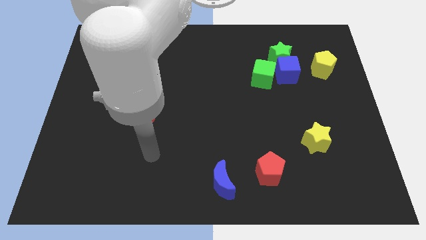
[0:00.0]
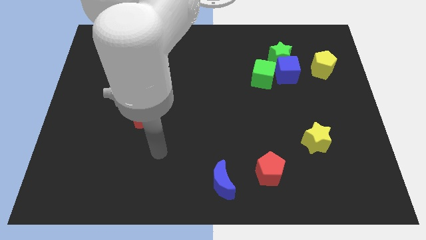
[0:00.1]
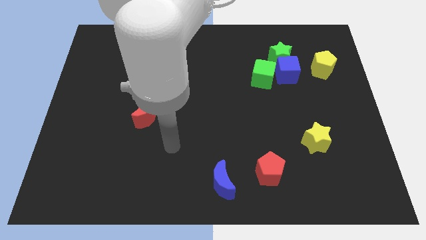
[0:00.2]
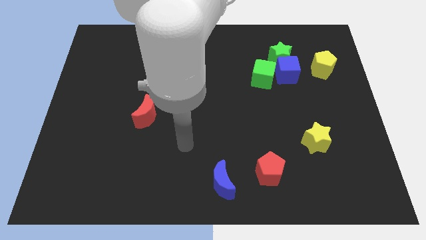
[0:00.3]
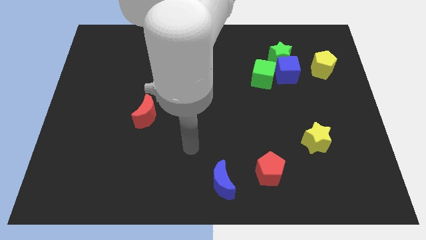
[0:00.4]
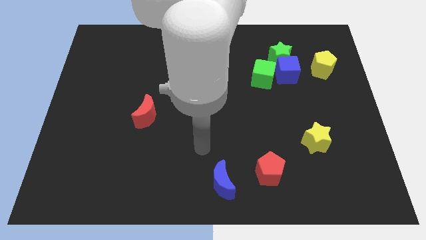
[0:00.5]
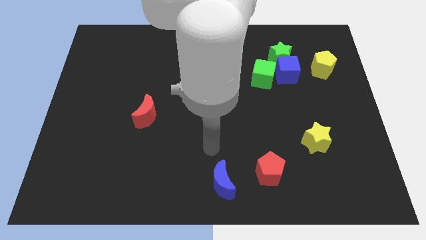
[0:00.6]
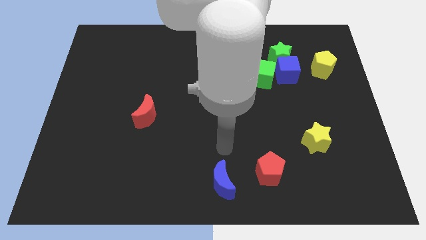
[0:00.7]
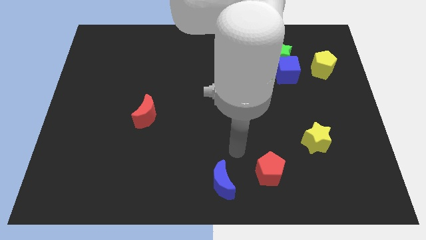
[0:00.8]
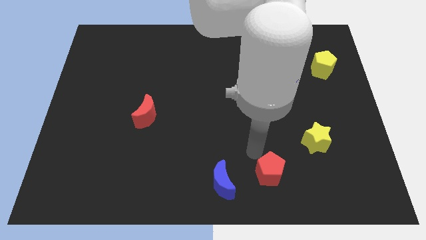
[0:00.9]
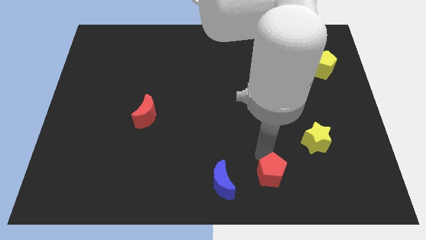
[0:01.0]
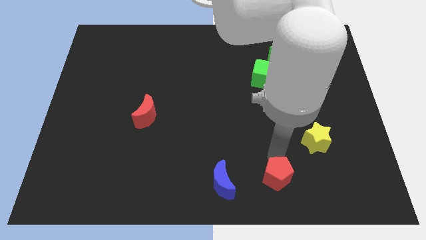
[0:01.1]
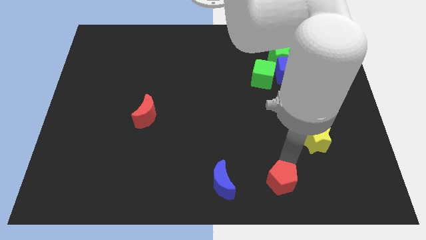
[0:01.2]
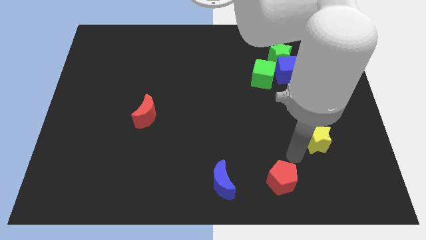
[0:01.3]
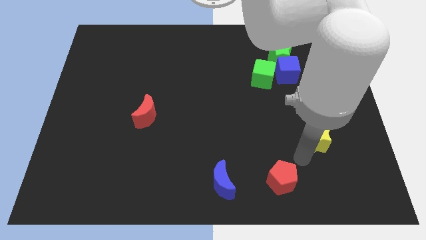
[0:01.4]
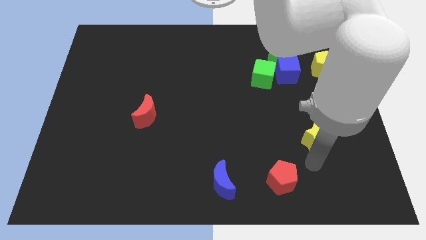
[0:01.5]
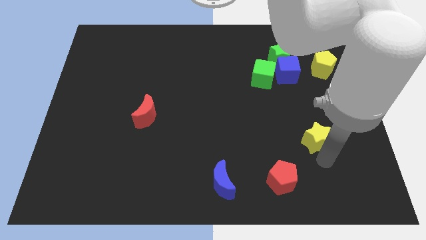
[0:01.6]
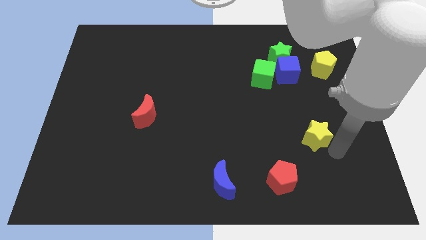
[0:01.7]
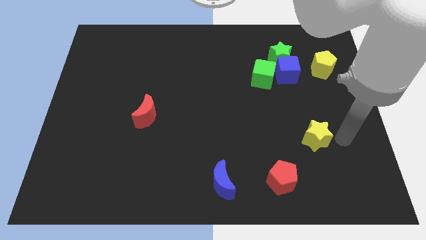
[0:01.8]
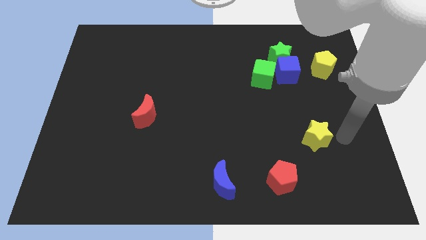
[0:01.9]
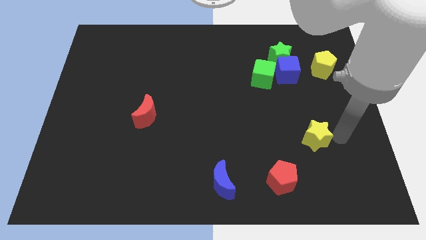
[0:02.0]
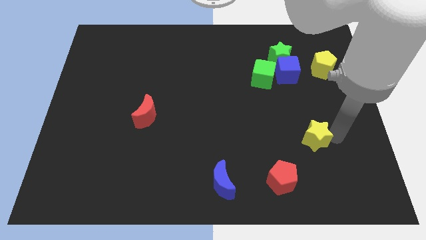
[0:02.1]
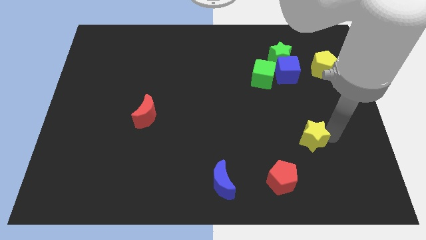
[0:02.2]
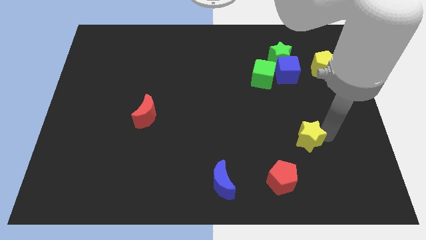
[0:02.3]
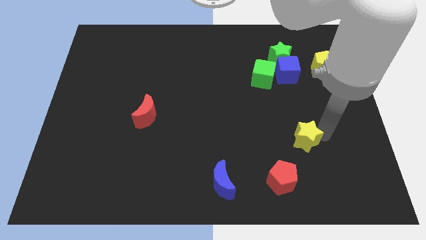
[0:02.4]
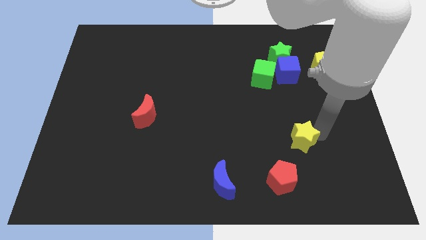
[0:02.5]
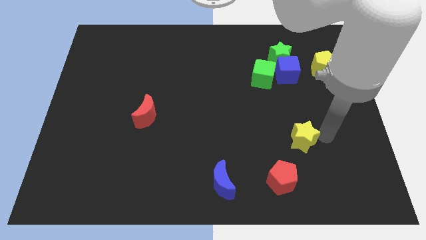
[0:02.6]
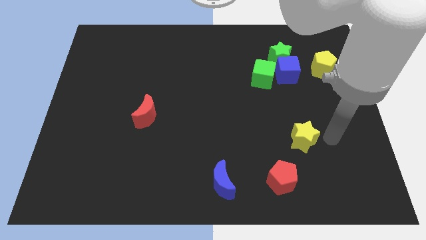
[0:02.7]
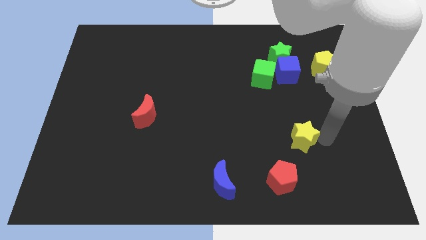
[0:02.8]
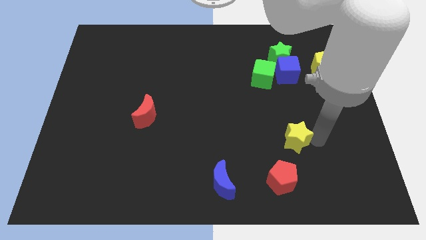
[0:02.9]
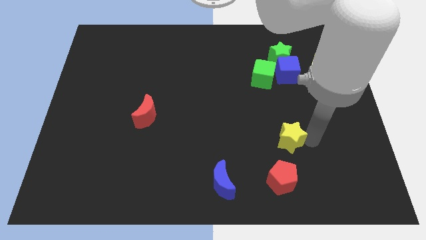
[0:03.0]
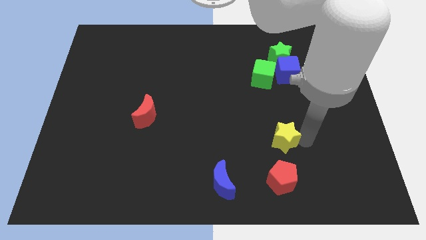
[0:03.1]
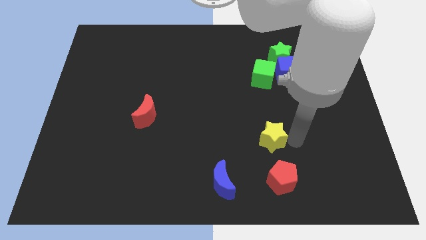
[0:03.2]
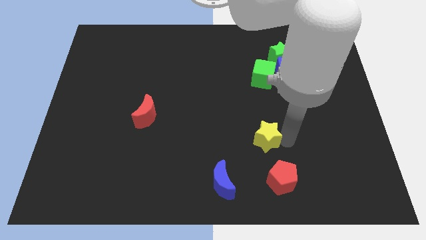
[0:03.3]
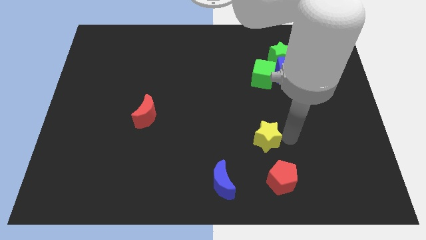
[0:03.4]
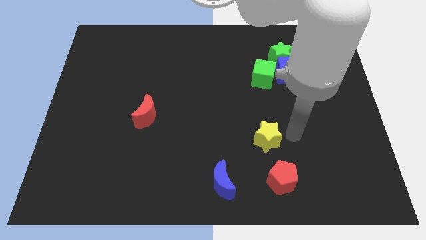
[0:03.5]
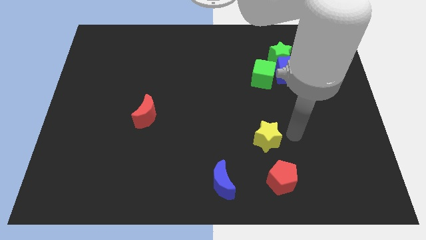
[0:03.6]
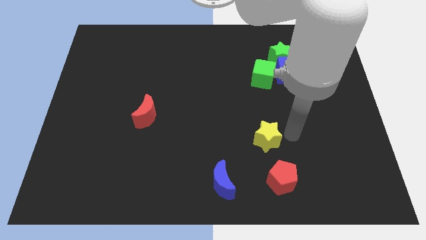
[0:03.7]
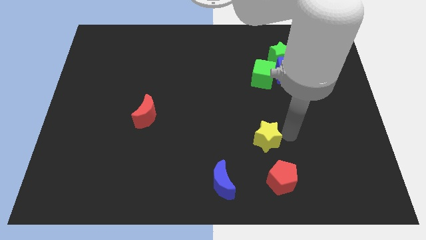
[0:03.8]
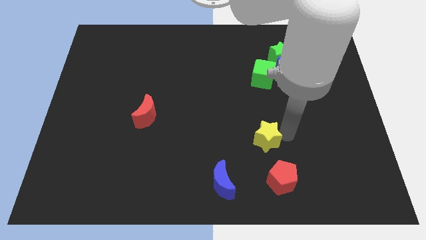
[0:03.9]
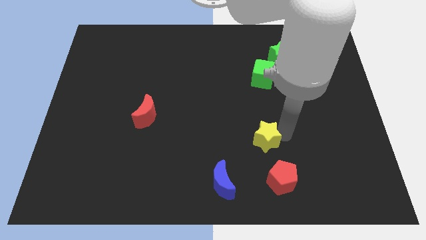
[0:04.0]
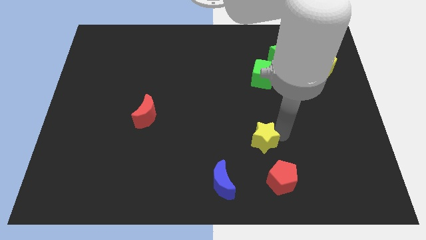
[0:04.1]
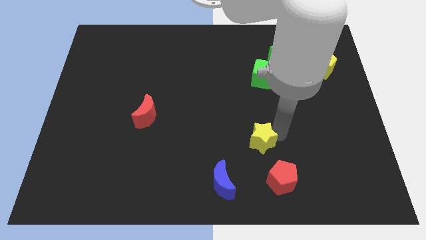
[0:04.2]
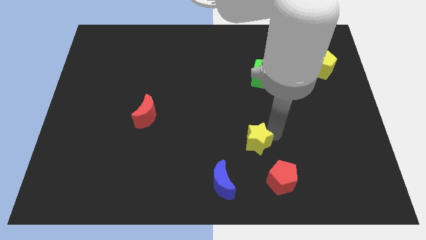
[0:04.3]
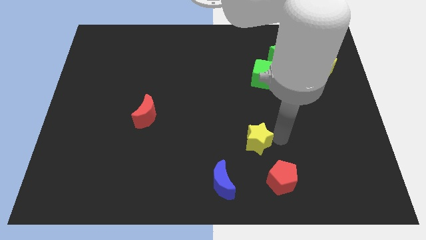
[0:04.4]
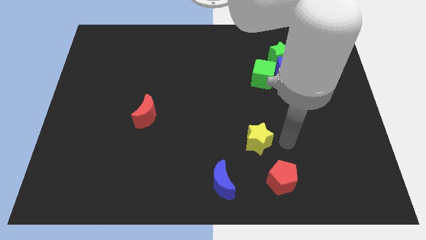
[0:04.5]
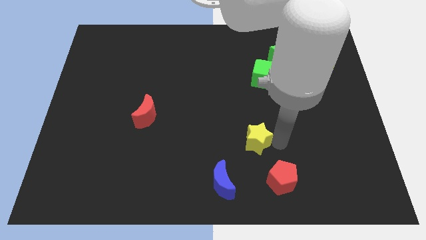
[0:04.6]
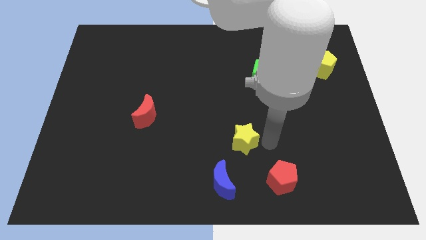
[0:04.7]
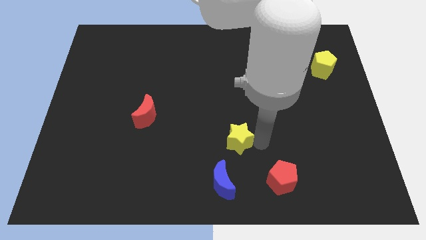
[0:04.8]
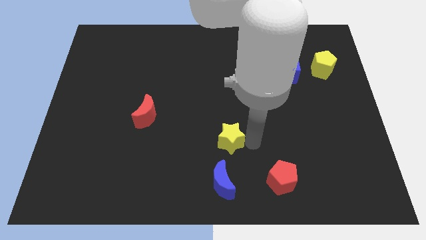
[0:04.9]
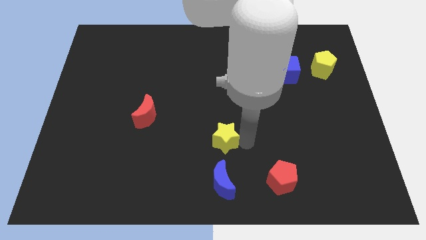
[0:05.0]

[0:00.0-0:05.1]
move the yellow star to the left

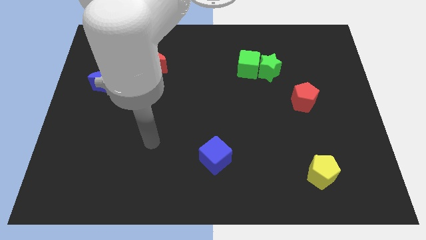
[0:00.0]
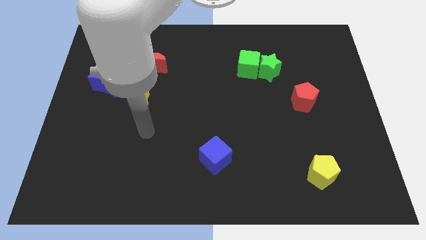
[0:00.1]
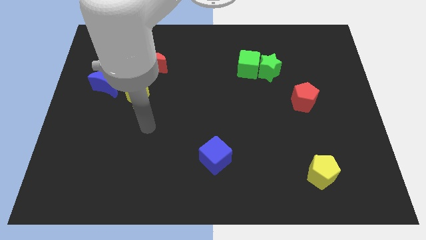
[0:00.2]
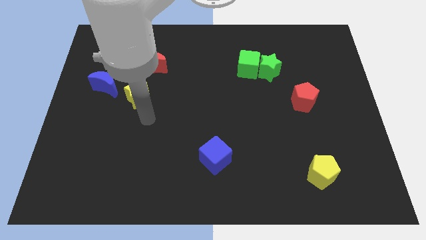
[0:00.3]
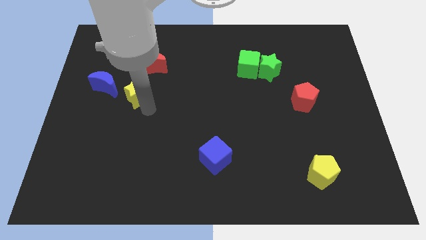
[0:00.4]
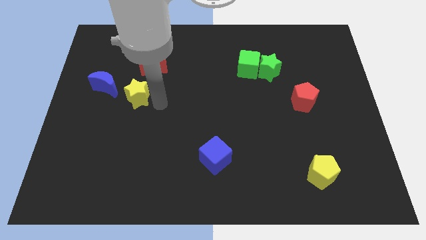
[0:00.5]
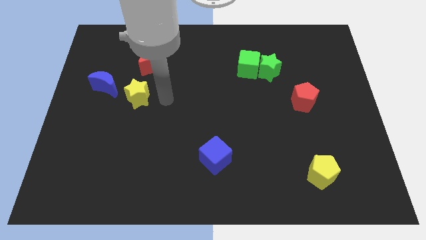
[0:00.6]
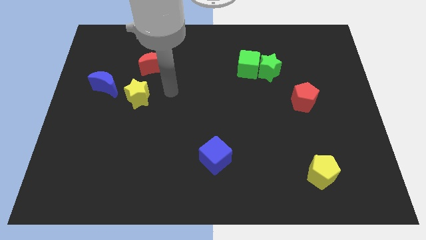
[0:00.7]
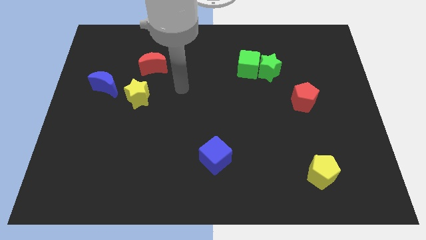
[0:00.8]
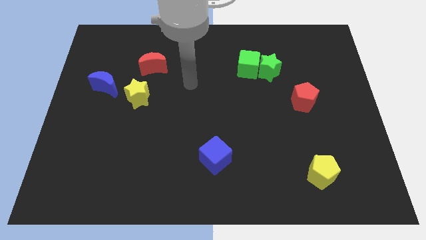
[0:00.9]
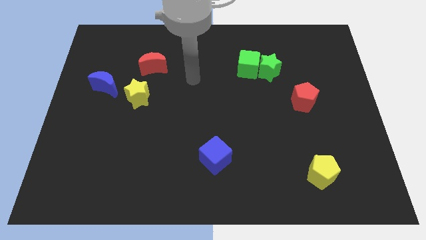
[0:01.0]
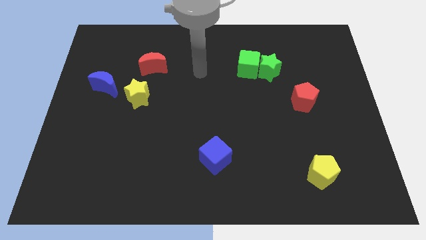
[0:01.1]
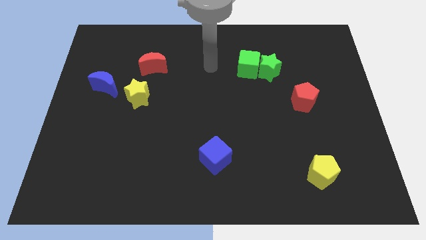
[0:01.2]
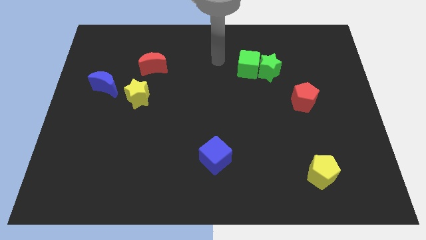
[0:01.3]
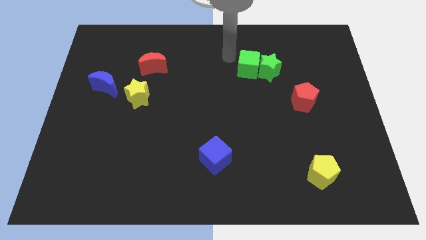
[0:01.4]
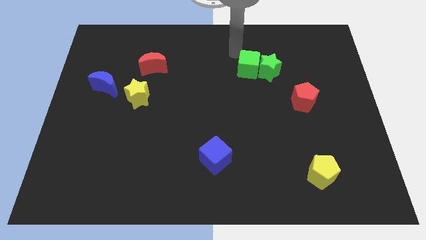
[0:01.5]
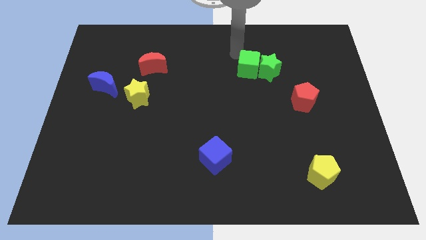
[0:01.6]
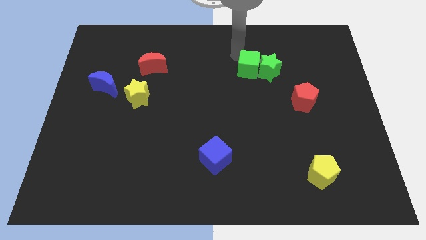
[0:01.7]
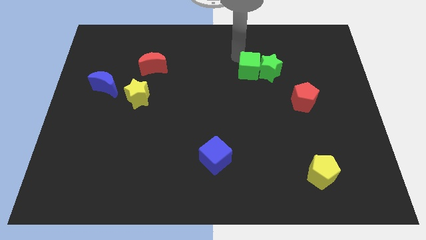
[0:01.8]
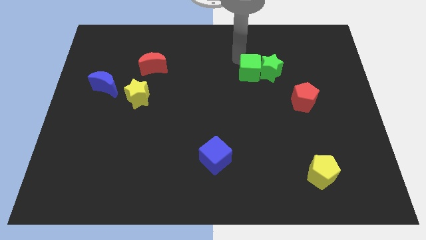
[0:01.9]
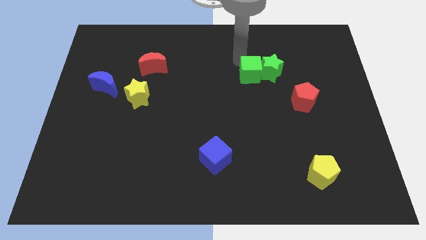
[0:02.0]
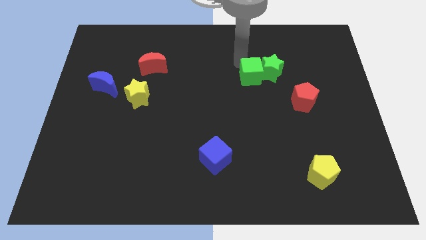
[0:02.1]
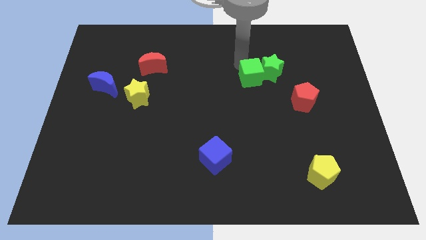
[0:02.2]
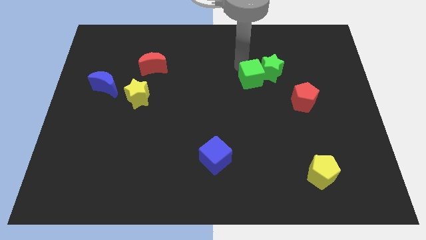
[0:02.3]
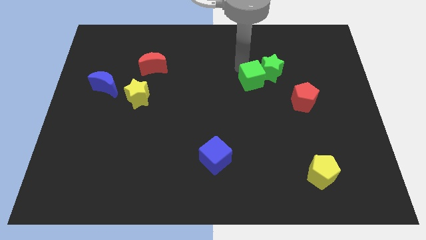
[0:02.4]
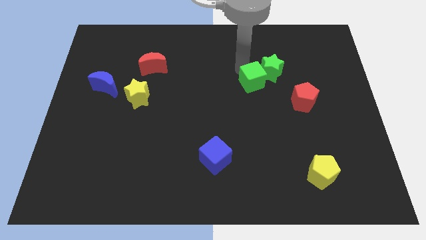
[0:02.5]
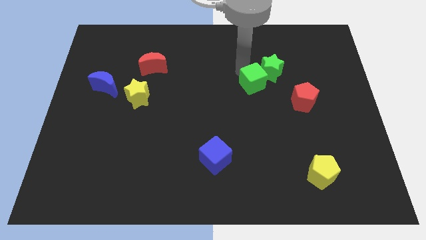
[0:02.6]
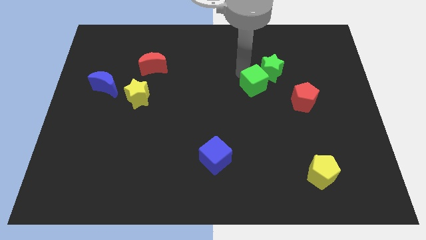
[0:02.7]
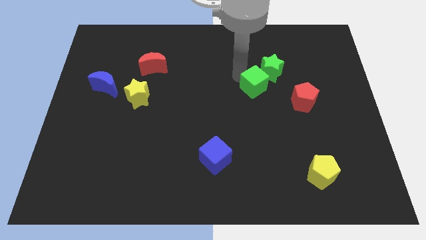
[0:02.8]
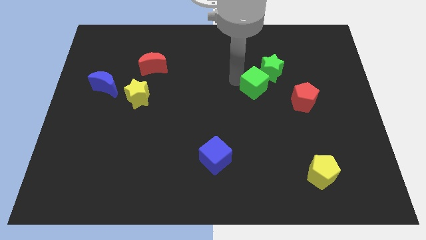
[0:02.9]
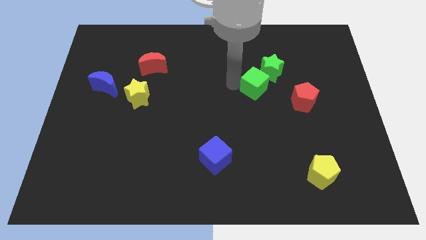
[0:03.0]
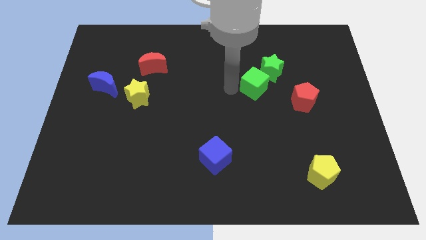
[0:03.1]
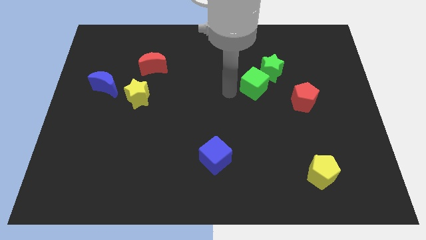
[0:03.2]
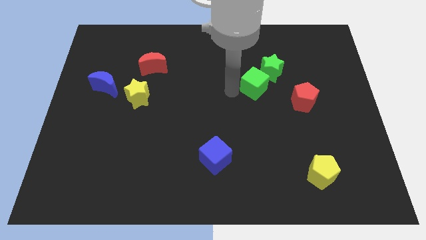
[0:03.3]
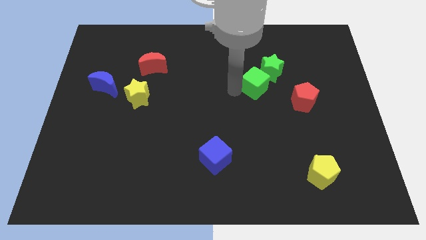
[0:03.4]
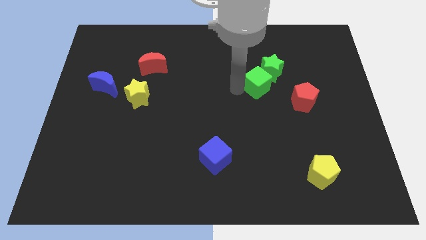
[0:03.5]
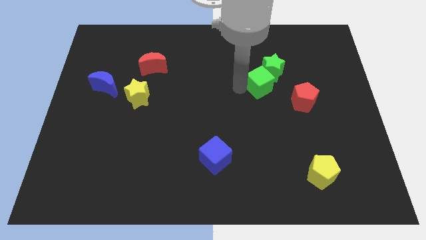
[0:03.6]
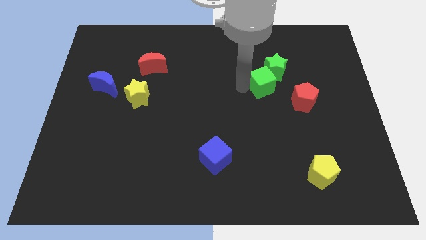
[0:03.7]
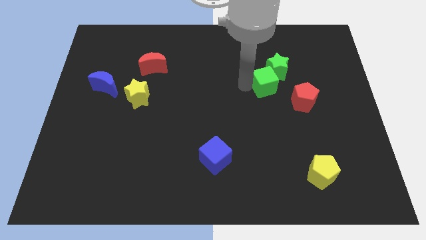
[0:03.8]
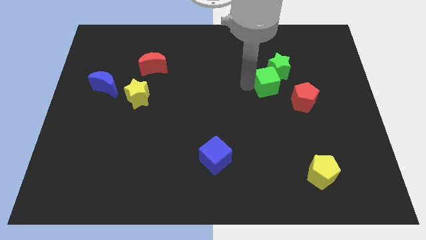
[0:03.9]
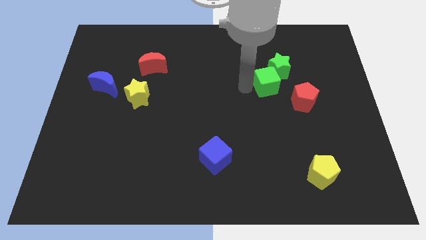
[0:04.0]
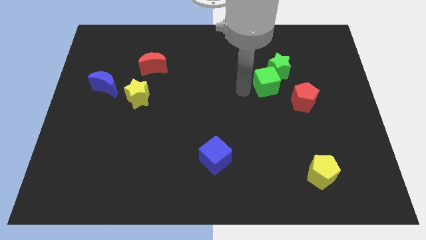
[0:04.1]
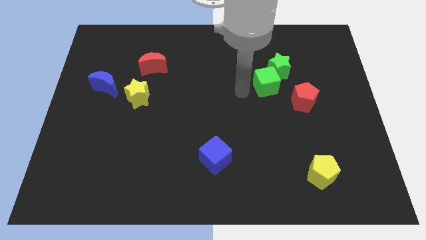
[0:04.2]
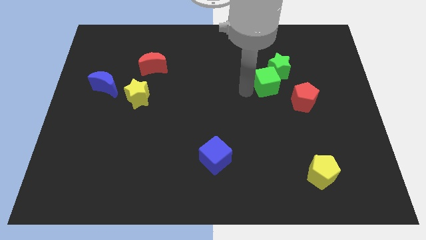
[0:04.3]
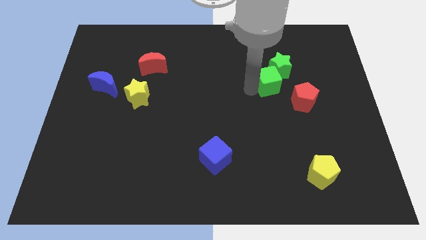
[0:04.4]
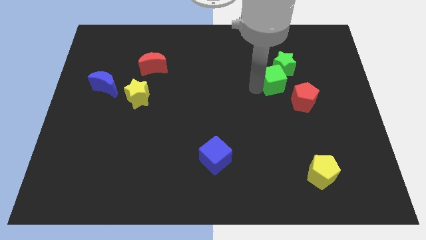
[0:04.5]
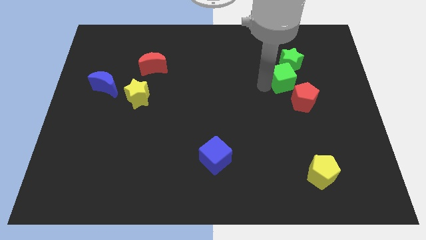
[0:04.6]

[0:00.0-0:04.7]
slightly push the green cube right
